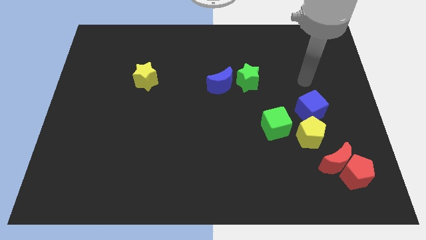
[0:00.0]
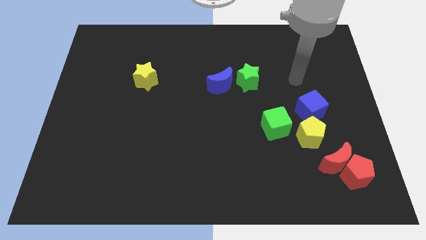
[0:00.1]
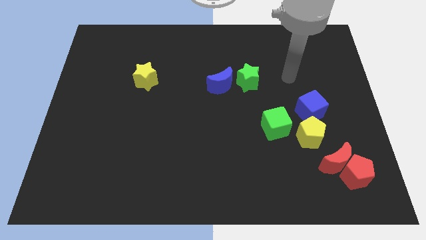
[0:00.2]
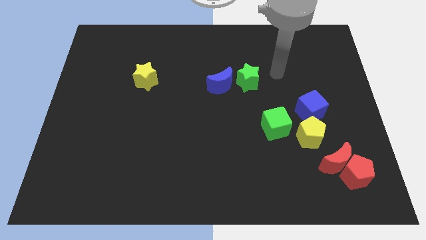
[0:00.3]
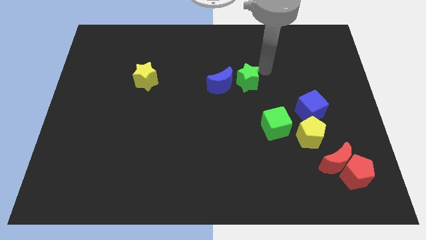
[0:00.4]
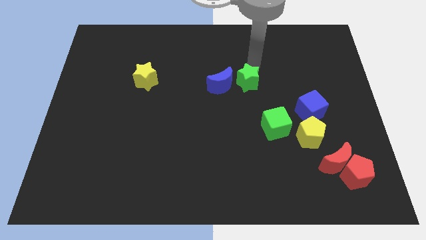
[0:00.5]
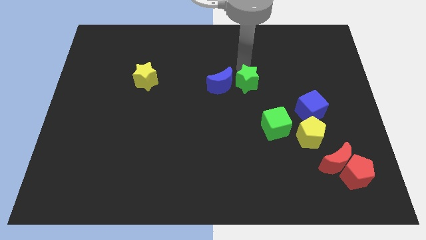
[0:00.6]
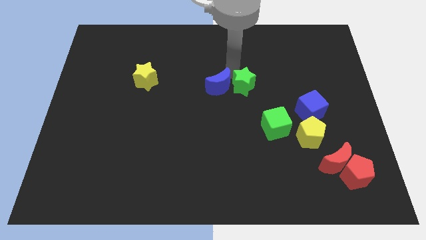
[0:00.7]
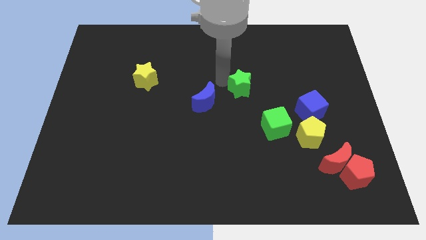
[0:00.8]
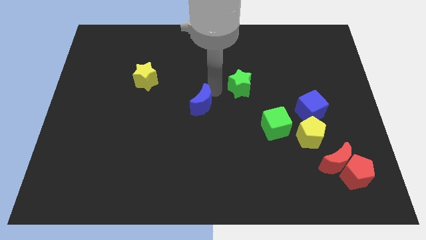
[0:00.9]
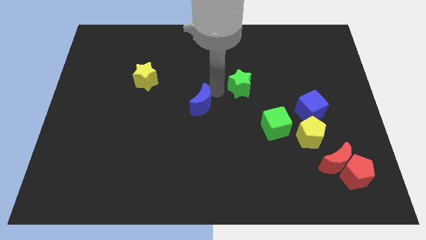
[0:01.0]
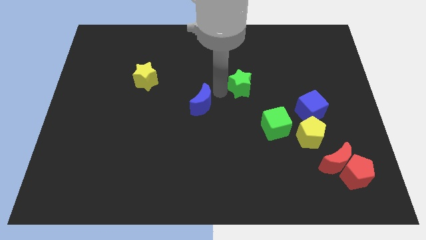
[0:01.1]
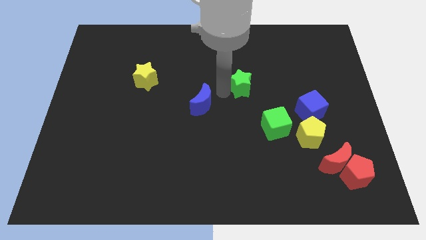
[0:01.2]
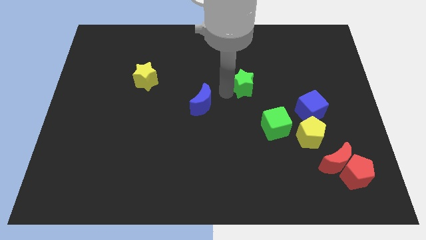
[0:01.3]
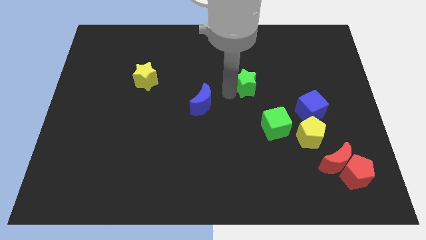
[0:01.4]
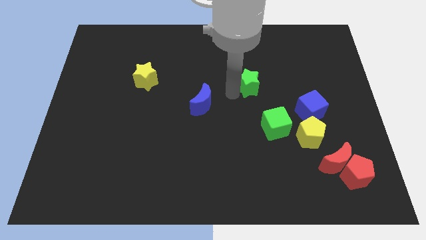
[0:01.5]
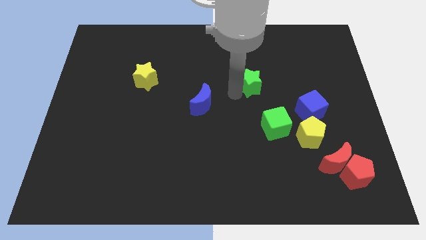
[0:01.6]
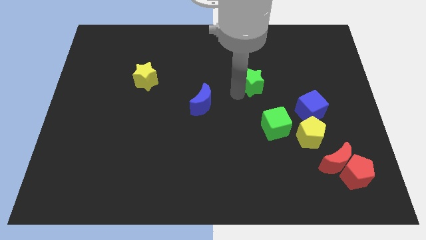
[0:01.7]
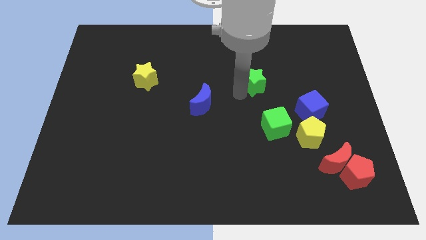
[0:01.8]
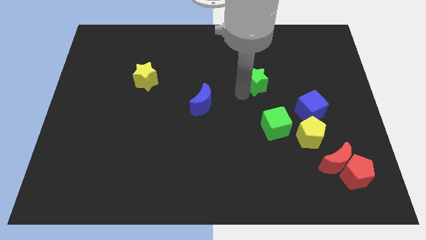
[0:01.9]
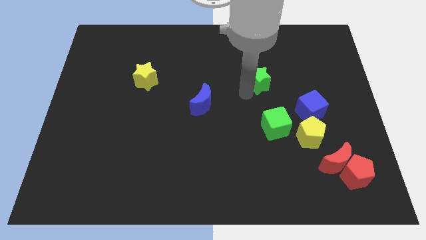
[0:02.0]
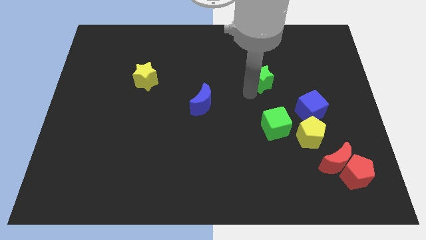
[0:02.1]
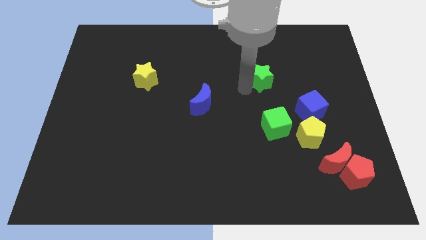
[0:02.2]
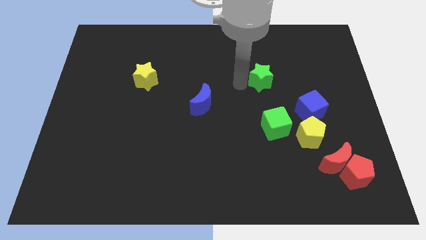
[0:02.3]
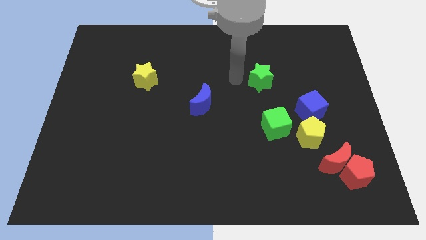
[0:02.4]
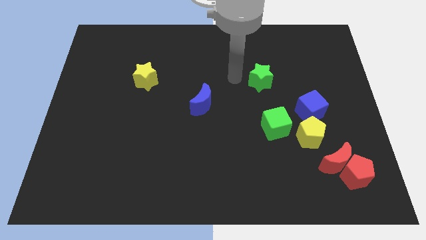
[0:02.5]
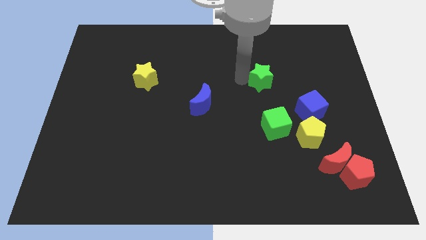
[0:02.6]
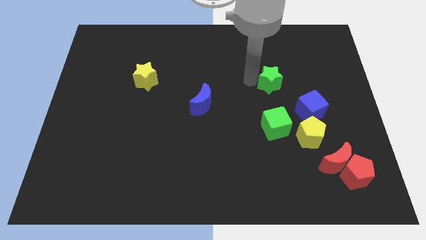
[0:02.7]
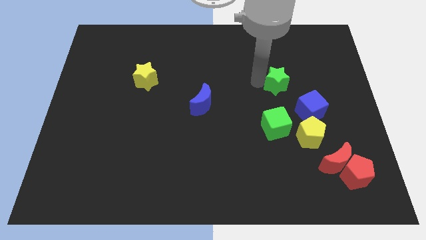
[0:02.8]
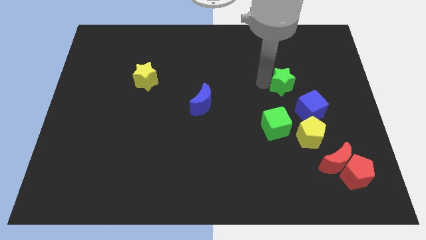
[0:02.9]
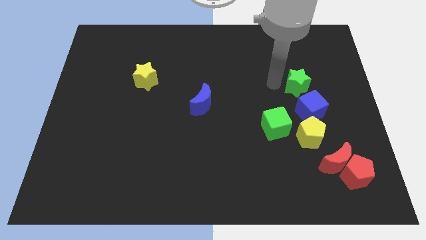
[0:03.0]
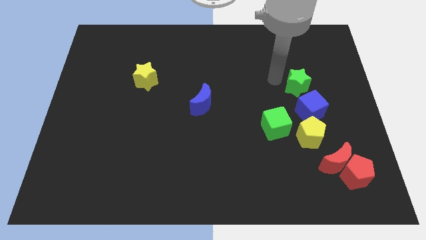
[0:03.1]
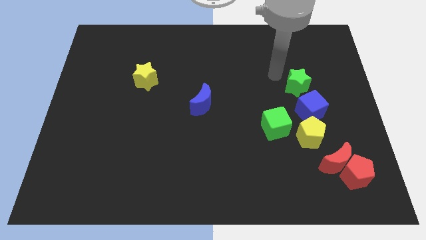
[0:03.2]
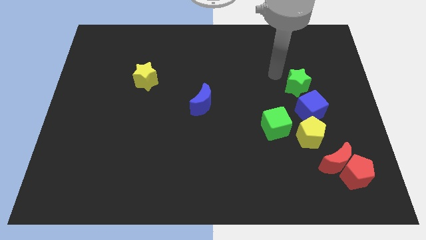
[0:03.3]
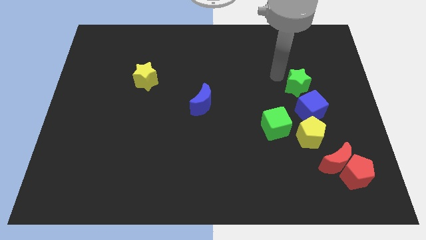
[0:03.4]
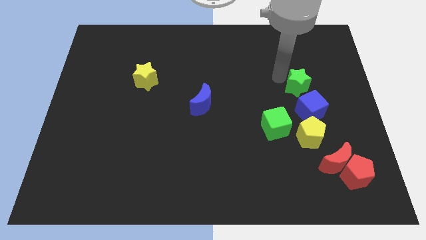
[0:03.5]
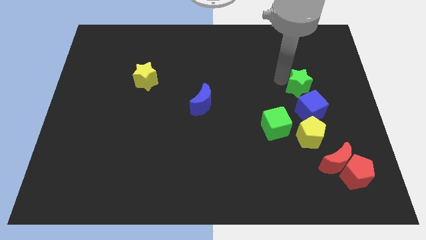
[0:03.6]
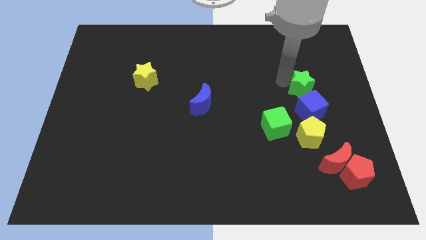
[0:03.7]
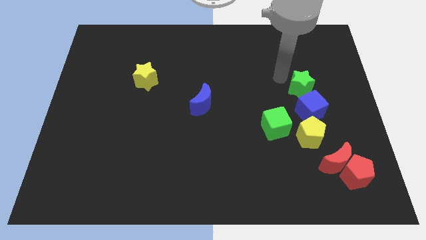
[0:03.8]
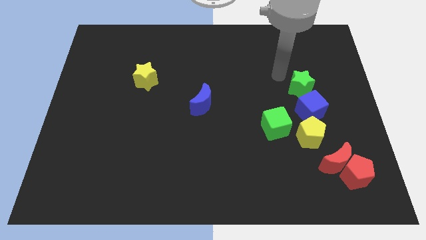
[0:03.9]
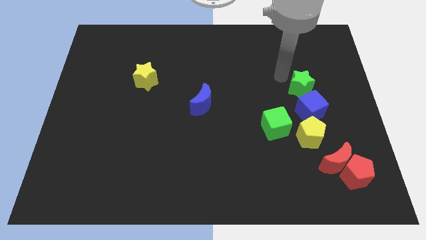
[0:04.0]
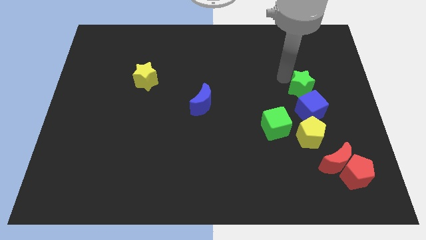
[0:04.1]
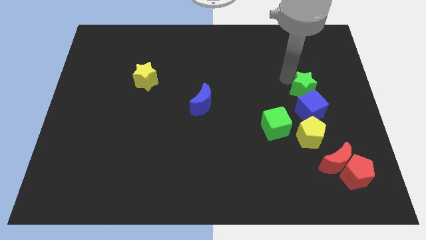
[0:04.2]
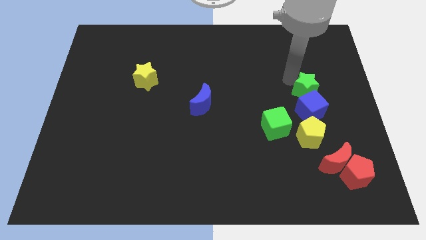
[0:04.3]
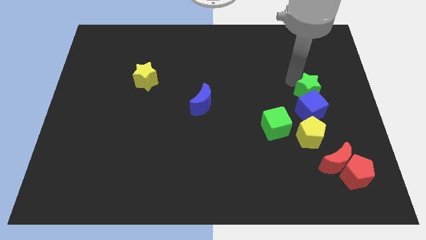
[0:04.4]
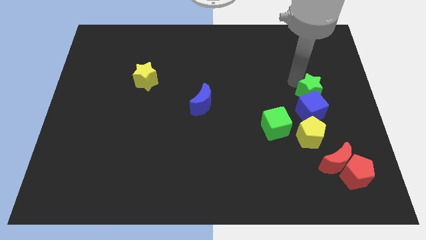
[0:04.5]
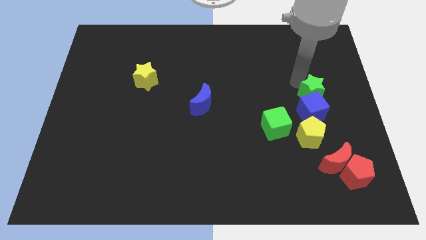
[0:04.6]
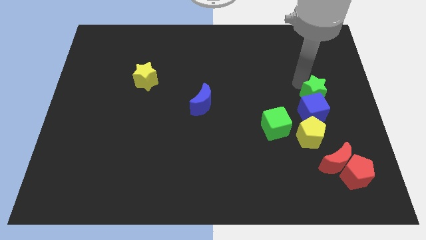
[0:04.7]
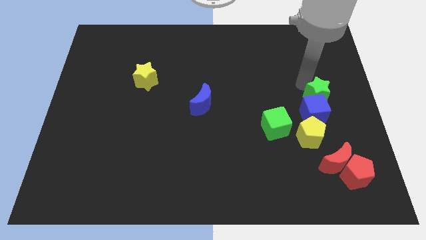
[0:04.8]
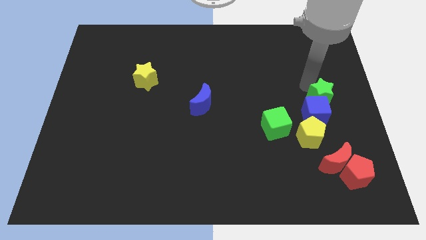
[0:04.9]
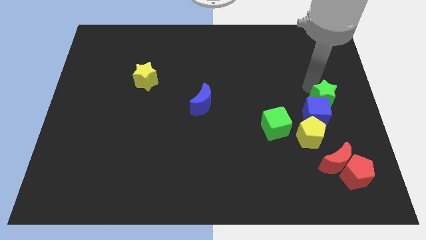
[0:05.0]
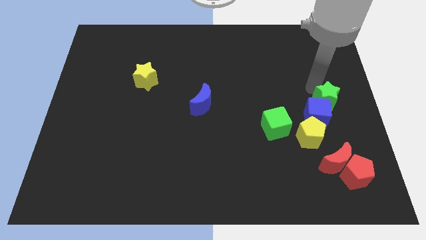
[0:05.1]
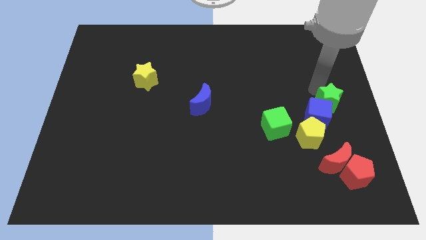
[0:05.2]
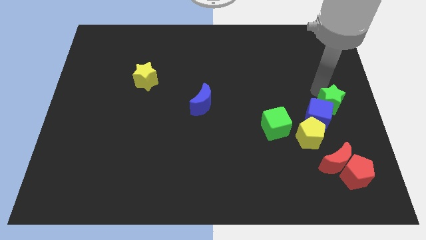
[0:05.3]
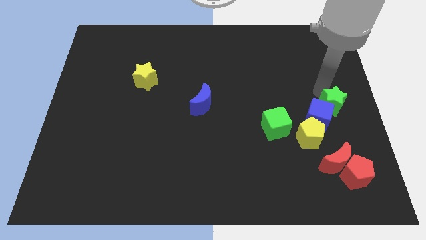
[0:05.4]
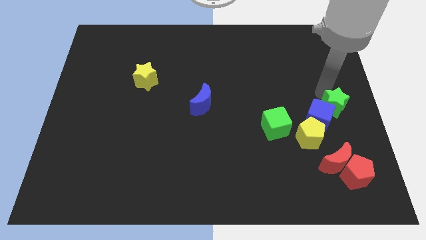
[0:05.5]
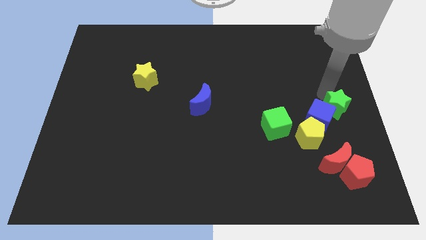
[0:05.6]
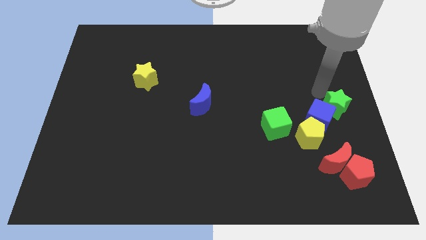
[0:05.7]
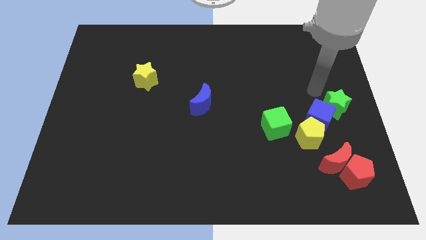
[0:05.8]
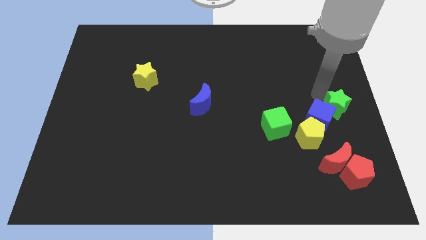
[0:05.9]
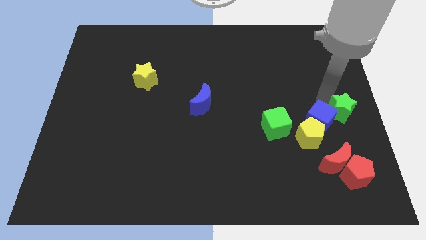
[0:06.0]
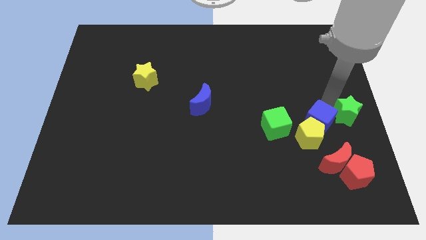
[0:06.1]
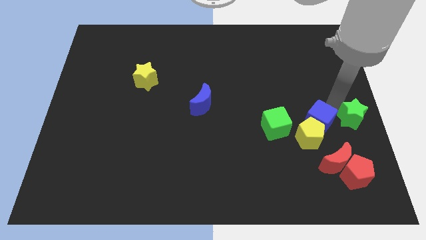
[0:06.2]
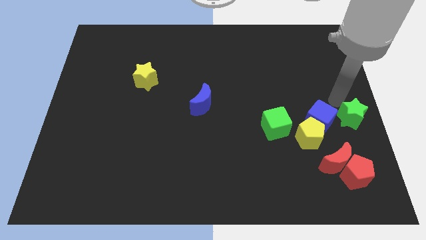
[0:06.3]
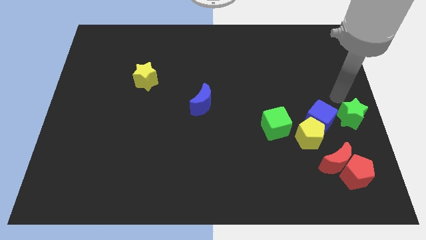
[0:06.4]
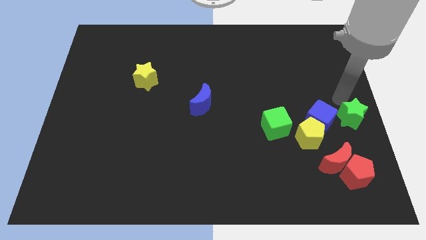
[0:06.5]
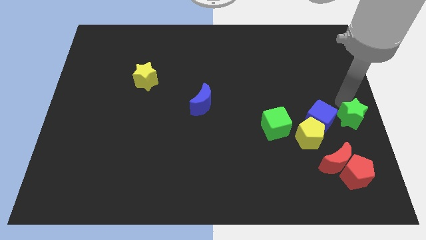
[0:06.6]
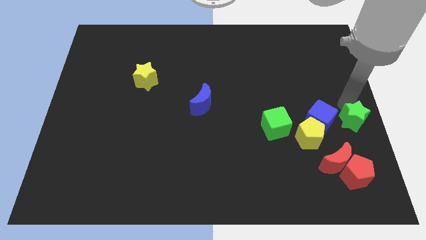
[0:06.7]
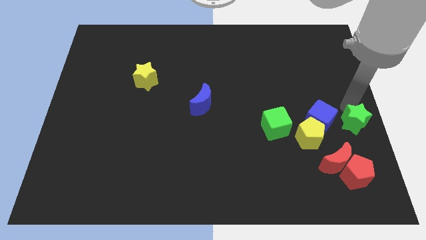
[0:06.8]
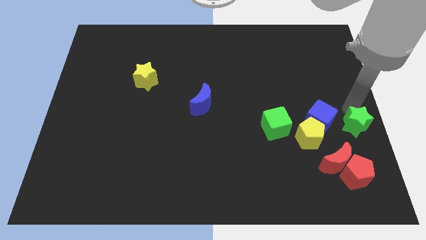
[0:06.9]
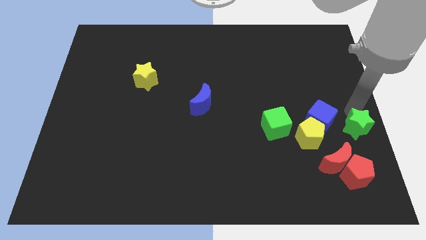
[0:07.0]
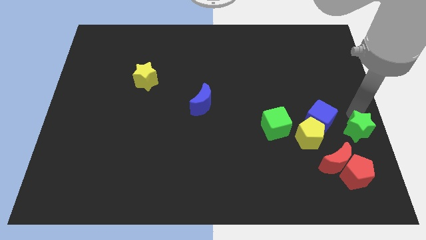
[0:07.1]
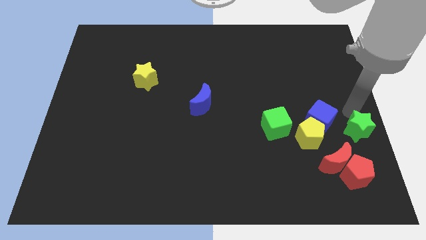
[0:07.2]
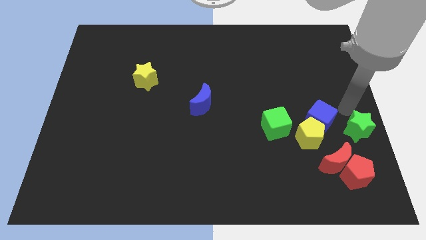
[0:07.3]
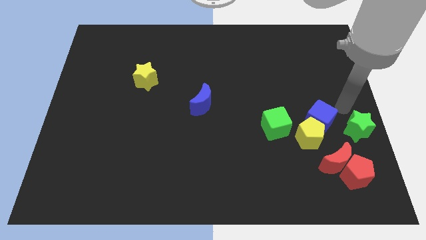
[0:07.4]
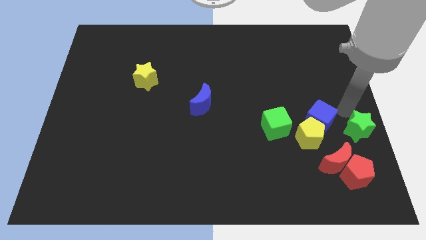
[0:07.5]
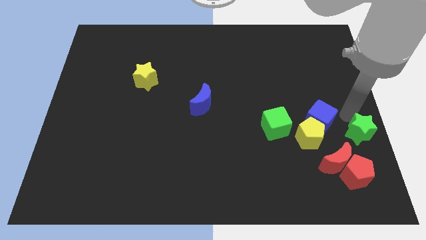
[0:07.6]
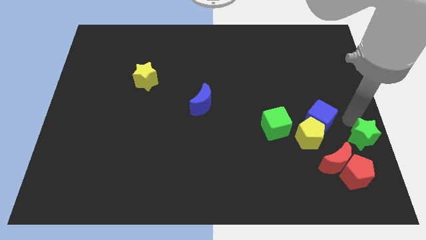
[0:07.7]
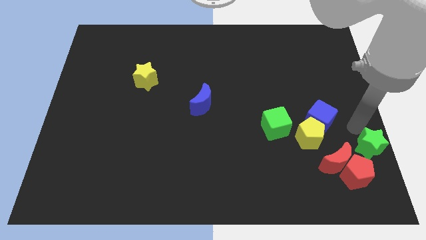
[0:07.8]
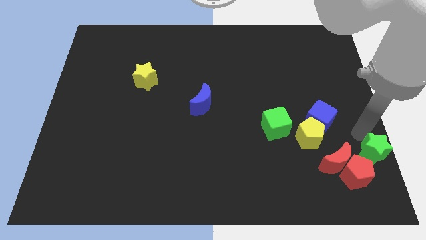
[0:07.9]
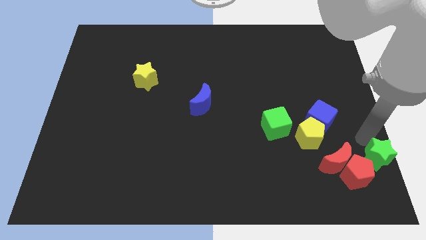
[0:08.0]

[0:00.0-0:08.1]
put the green star to the bottom right corner
